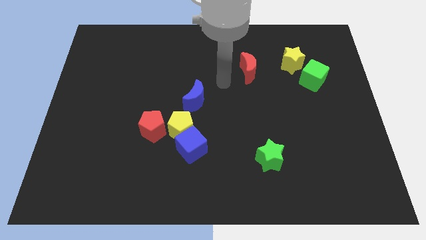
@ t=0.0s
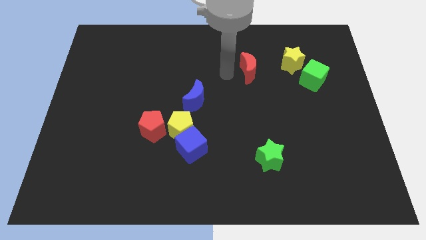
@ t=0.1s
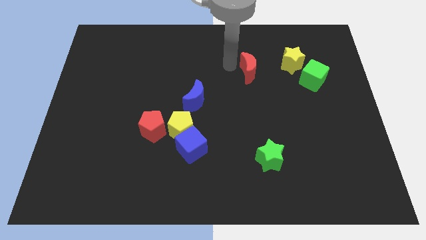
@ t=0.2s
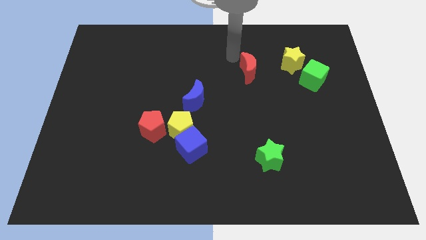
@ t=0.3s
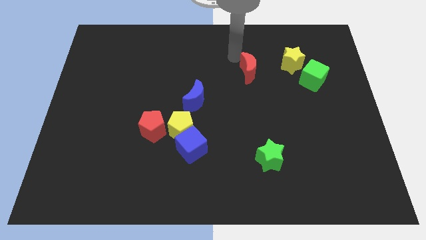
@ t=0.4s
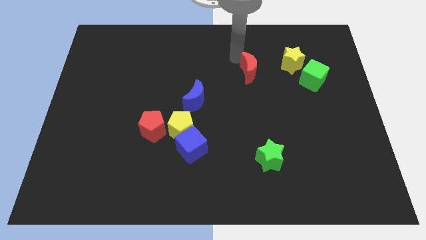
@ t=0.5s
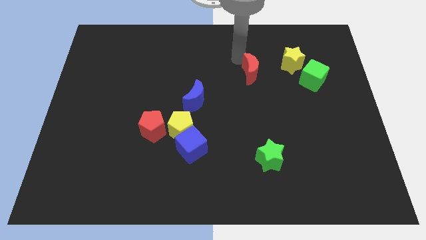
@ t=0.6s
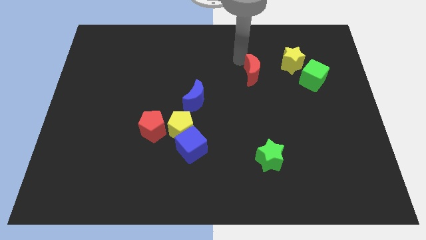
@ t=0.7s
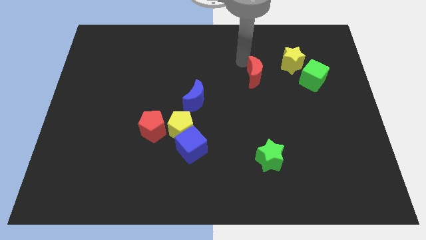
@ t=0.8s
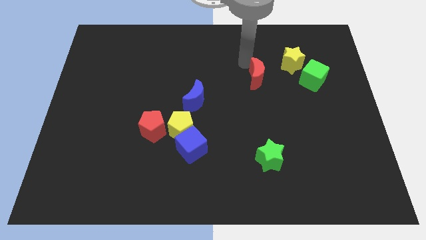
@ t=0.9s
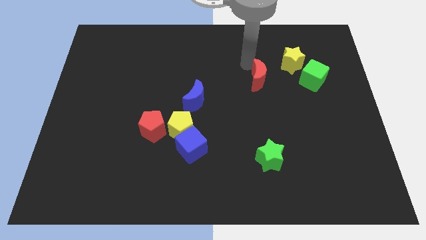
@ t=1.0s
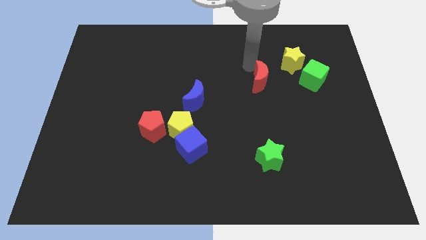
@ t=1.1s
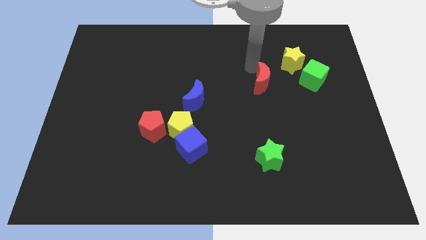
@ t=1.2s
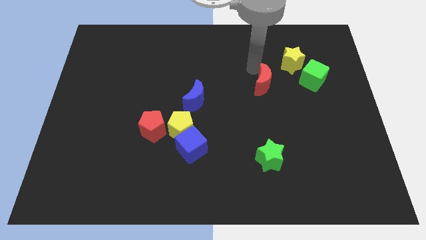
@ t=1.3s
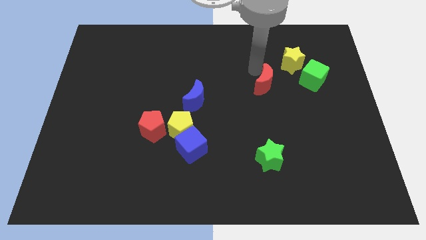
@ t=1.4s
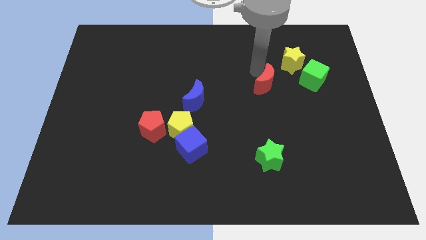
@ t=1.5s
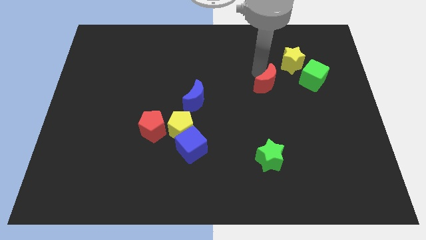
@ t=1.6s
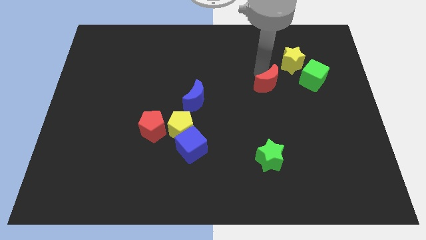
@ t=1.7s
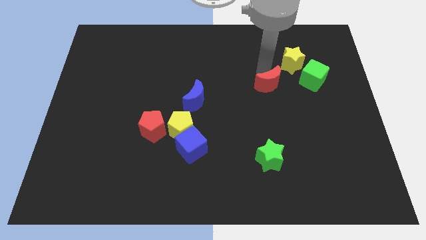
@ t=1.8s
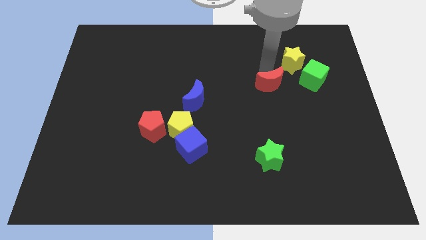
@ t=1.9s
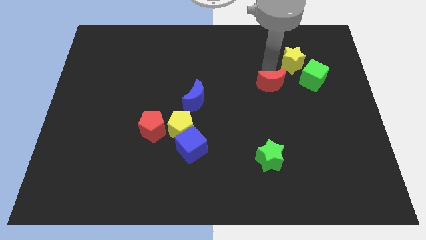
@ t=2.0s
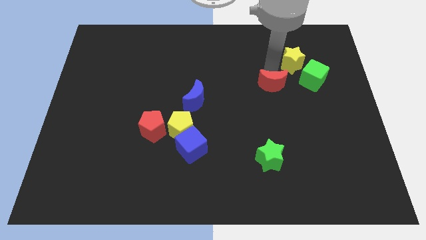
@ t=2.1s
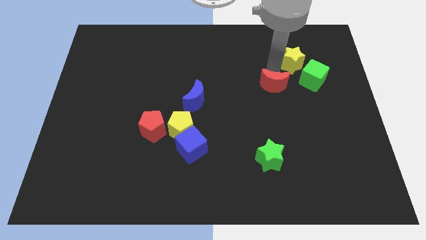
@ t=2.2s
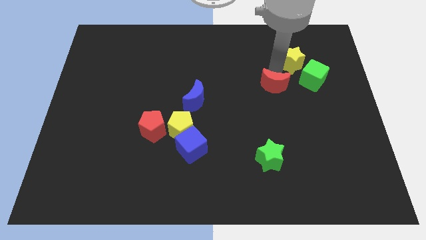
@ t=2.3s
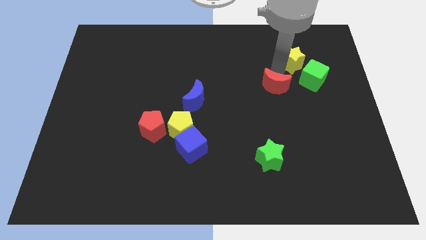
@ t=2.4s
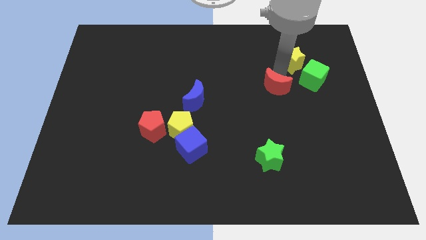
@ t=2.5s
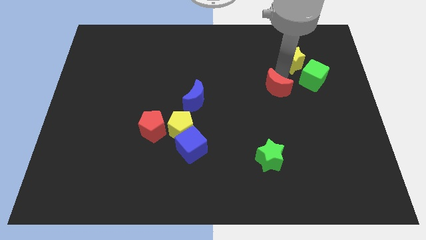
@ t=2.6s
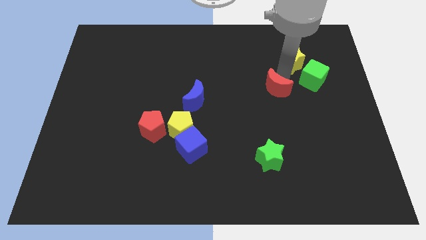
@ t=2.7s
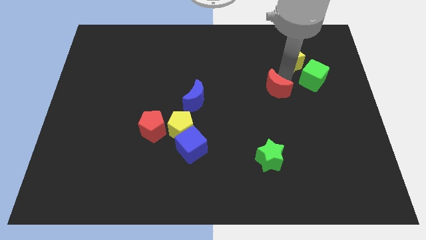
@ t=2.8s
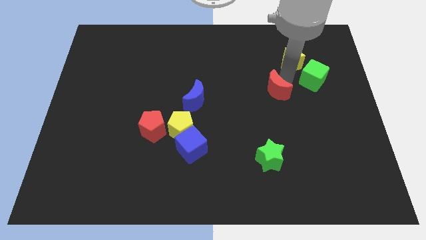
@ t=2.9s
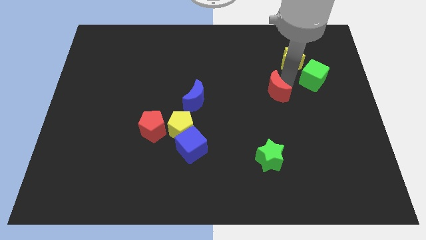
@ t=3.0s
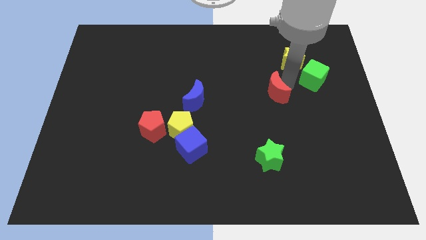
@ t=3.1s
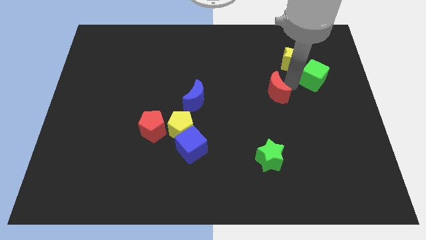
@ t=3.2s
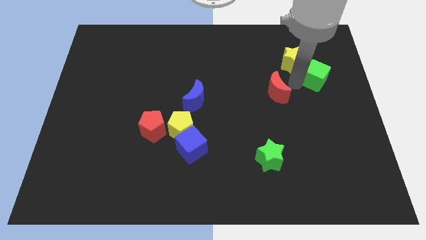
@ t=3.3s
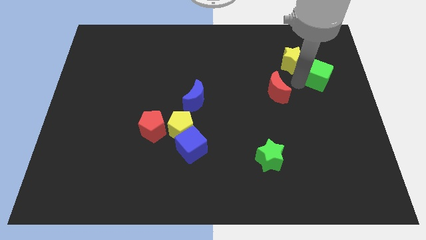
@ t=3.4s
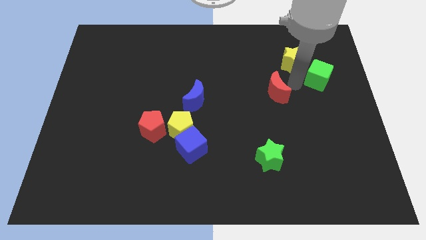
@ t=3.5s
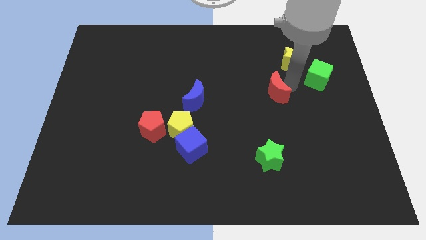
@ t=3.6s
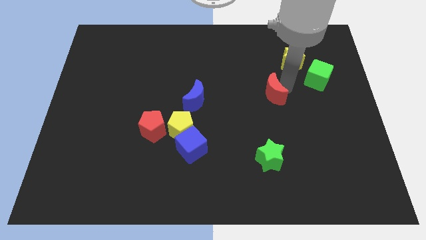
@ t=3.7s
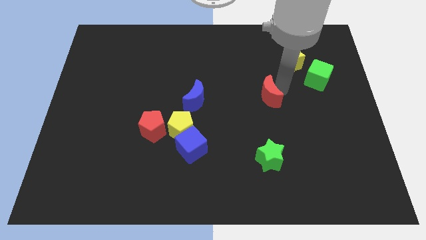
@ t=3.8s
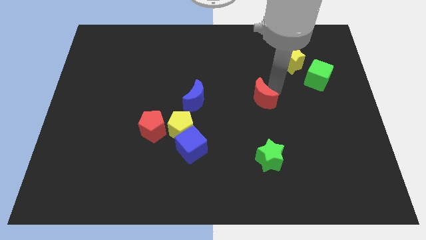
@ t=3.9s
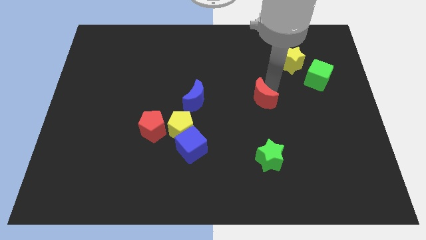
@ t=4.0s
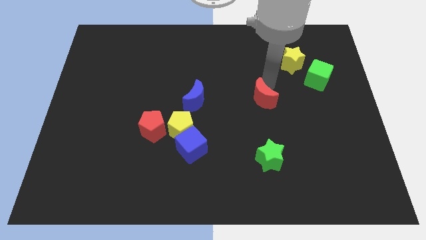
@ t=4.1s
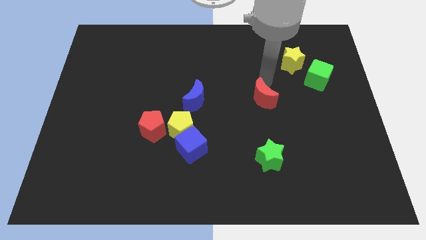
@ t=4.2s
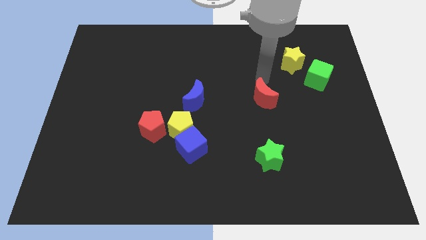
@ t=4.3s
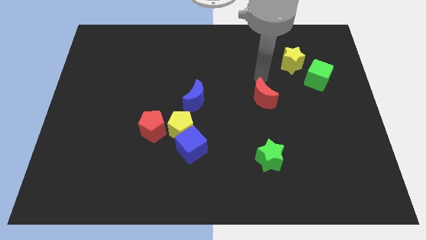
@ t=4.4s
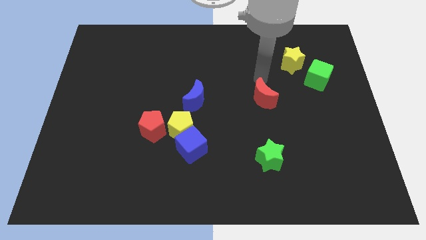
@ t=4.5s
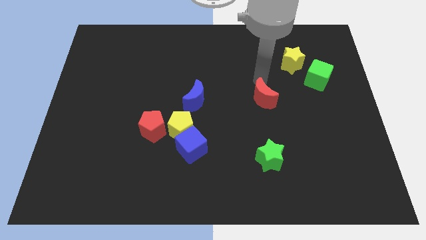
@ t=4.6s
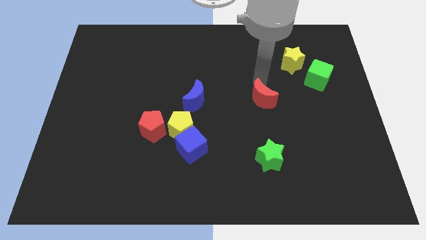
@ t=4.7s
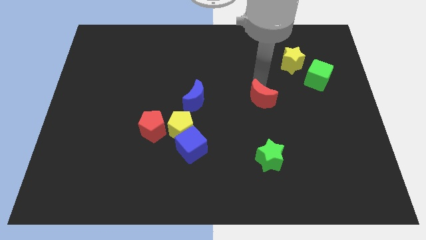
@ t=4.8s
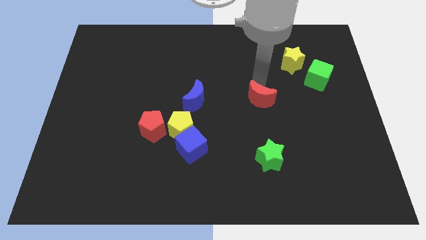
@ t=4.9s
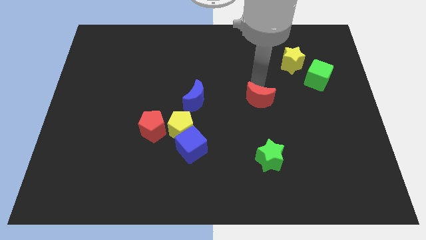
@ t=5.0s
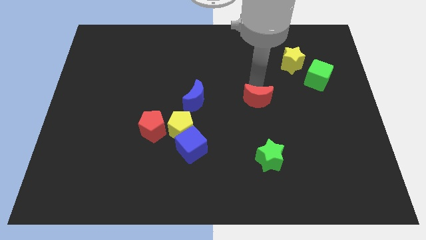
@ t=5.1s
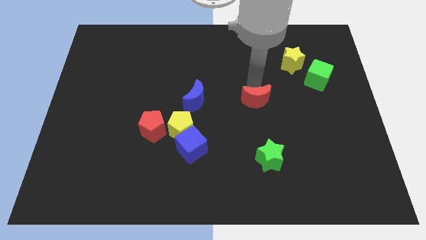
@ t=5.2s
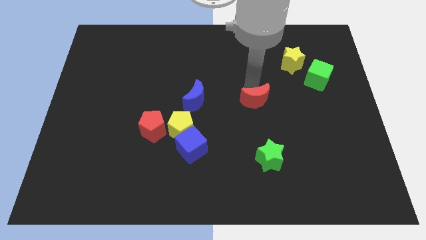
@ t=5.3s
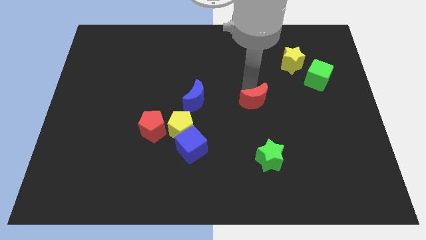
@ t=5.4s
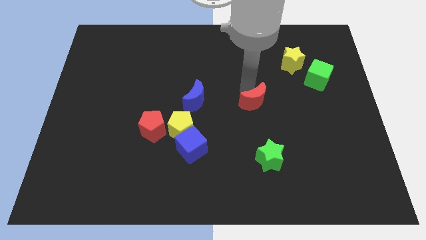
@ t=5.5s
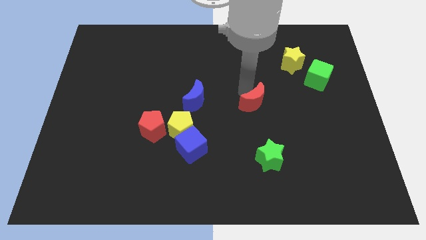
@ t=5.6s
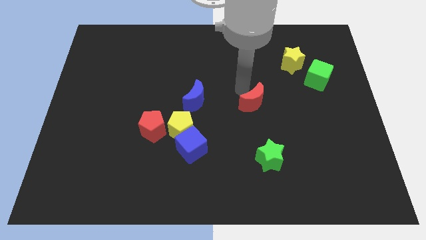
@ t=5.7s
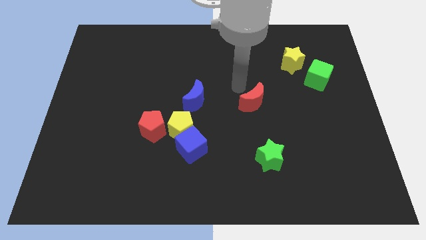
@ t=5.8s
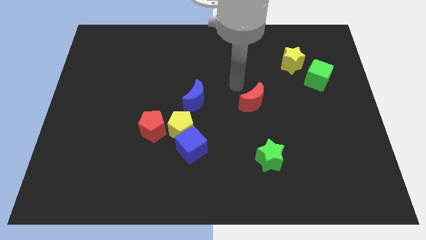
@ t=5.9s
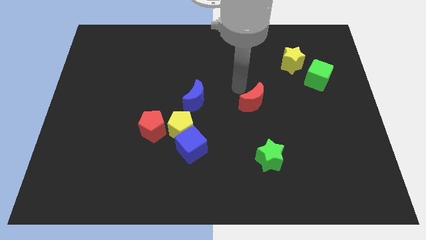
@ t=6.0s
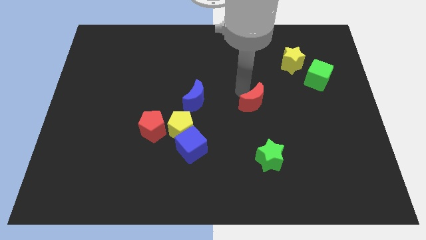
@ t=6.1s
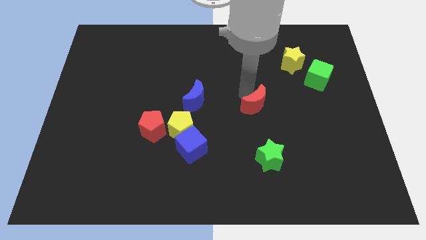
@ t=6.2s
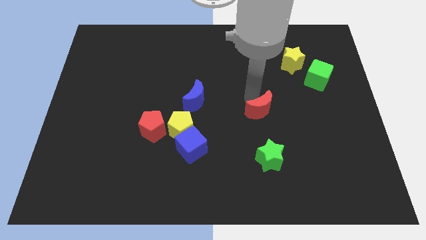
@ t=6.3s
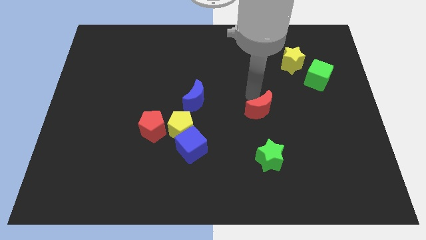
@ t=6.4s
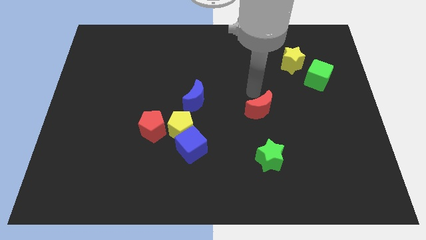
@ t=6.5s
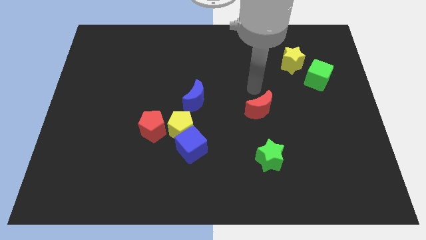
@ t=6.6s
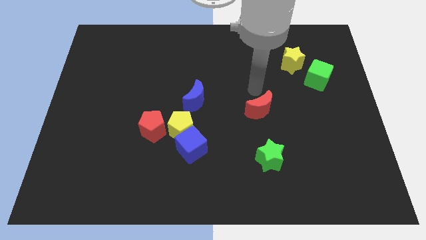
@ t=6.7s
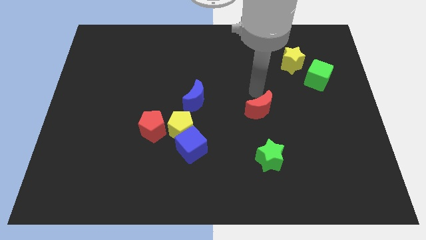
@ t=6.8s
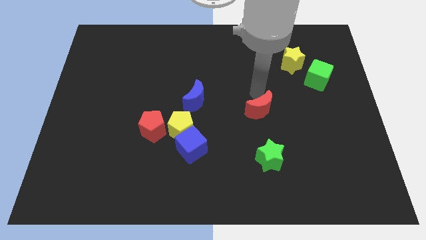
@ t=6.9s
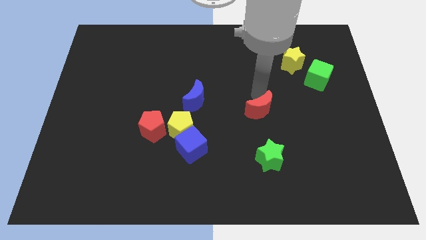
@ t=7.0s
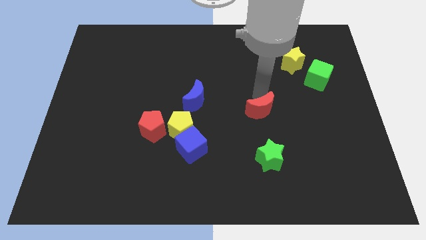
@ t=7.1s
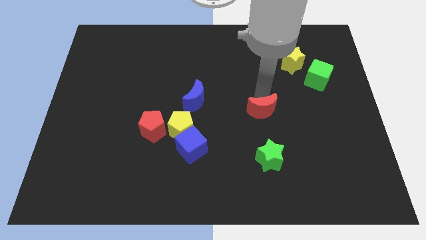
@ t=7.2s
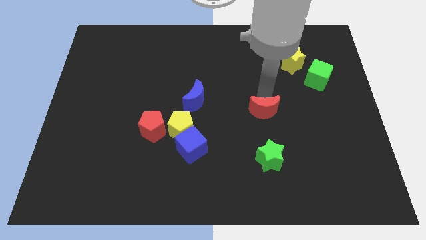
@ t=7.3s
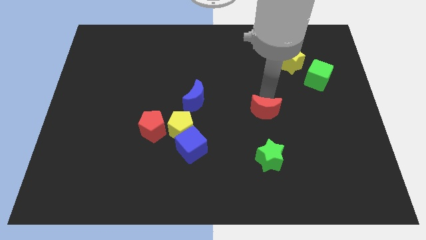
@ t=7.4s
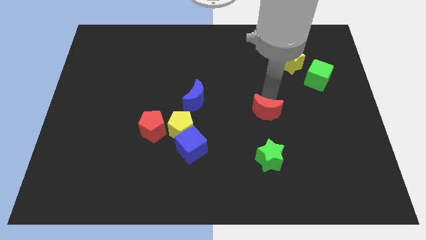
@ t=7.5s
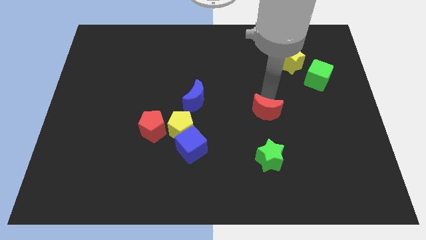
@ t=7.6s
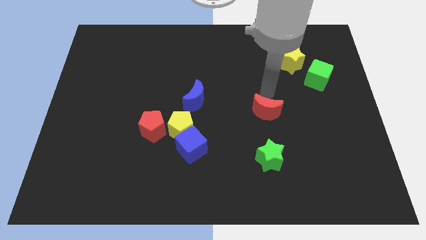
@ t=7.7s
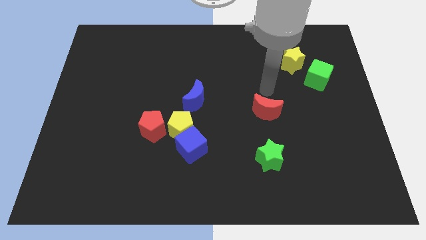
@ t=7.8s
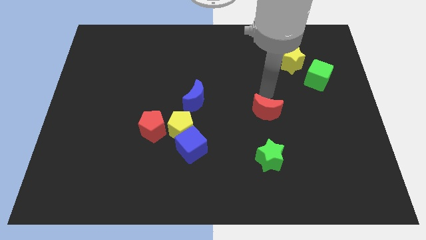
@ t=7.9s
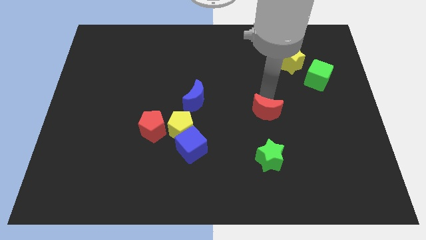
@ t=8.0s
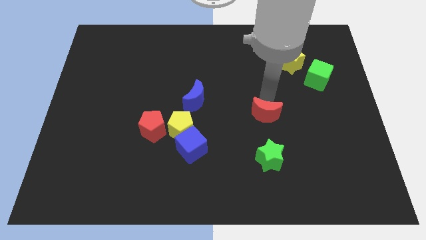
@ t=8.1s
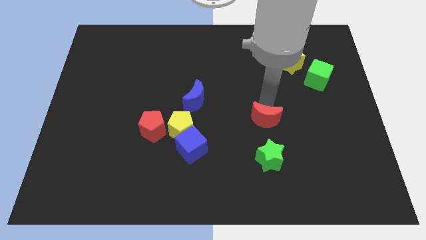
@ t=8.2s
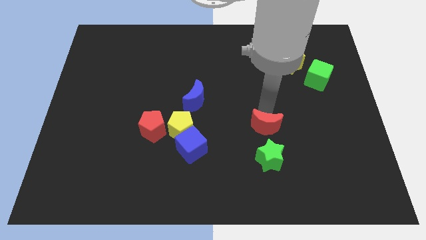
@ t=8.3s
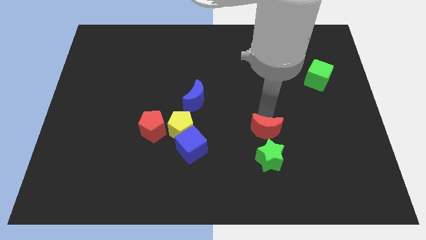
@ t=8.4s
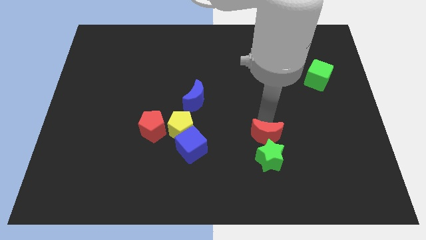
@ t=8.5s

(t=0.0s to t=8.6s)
push the red moon towards the green star
